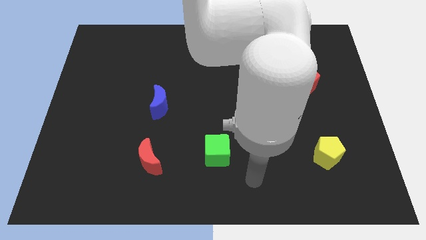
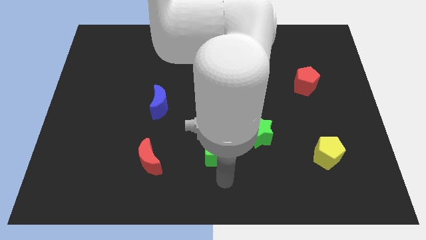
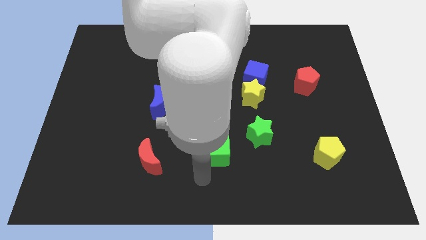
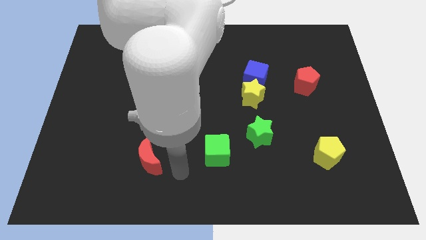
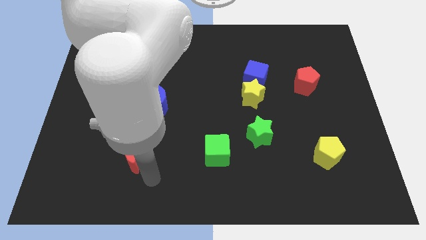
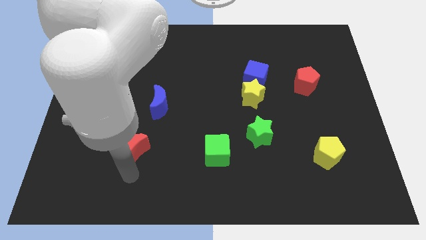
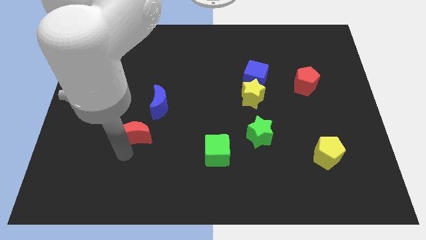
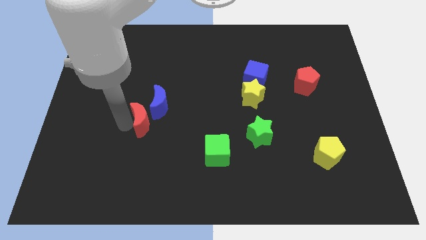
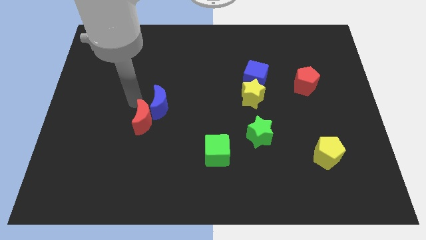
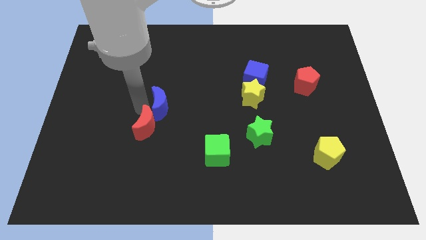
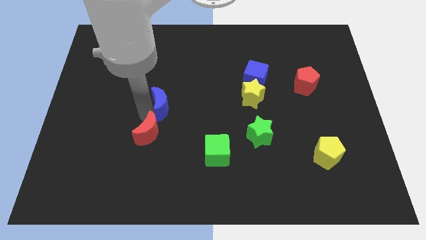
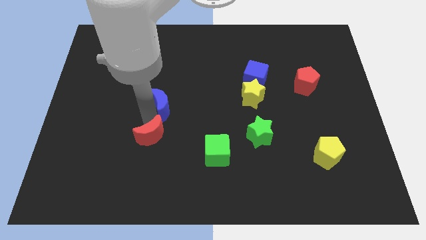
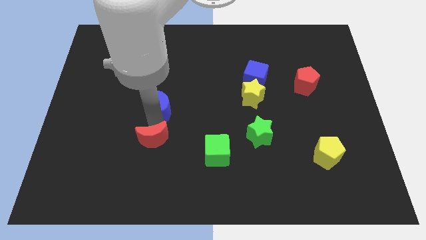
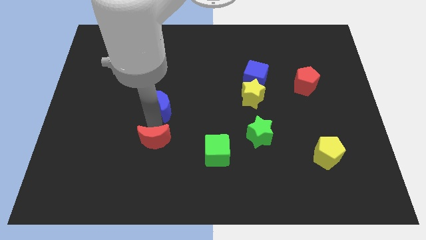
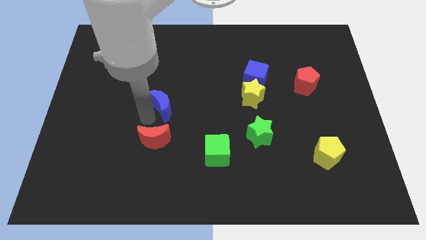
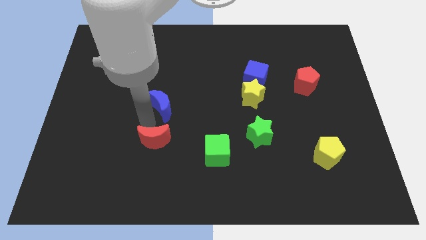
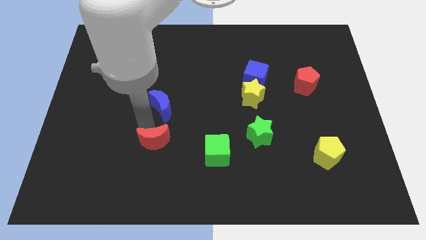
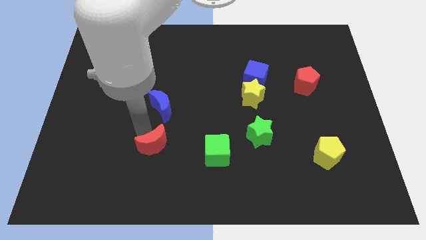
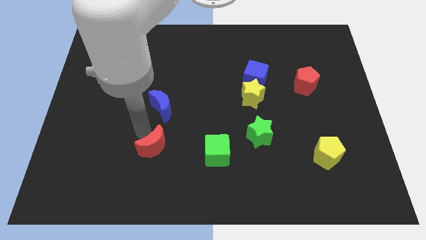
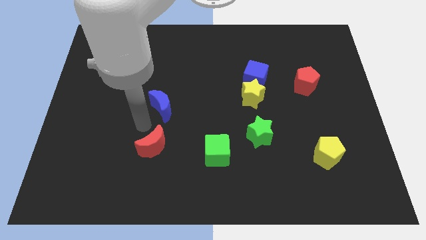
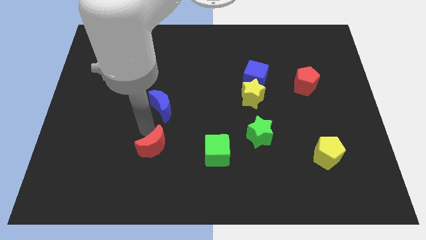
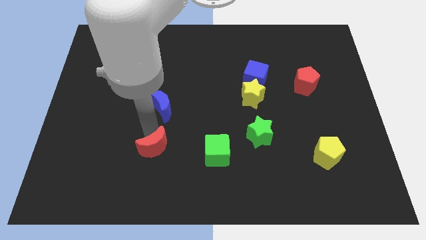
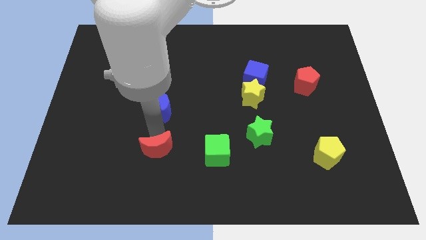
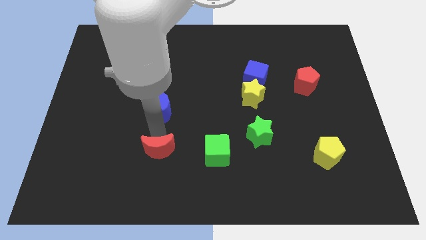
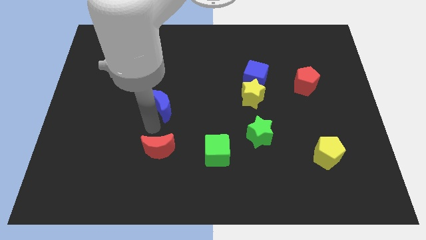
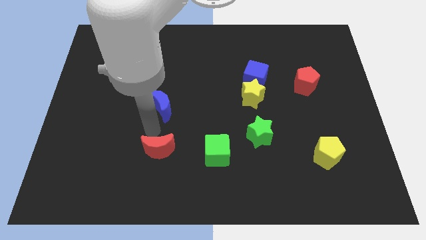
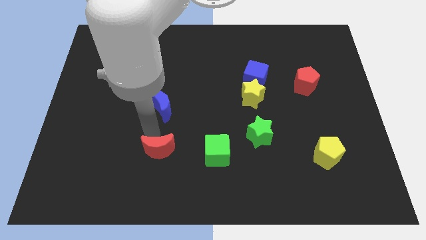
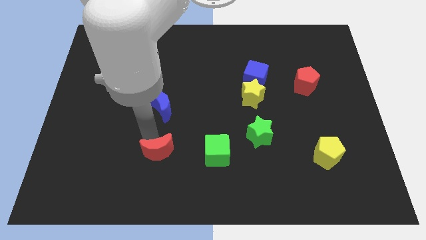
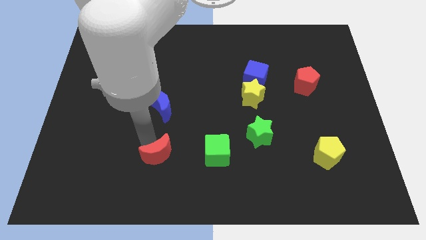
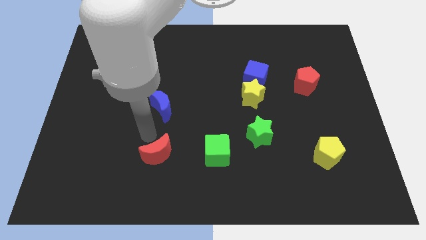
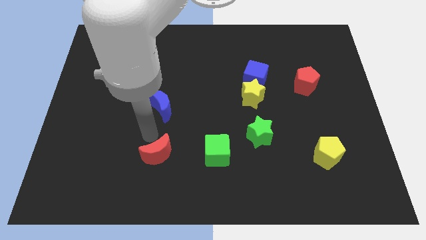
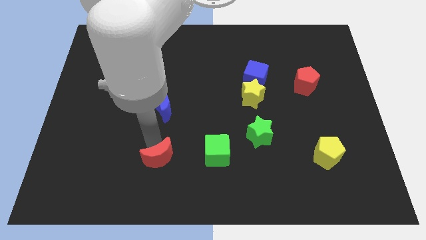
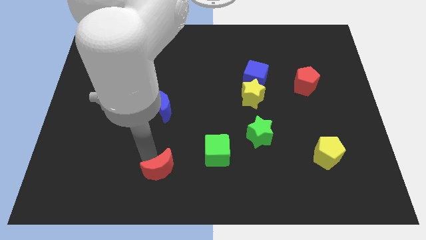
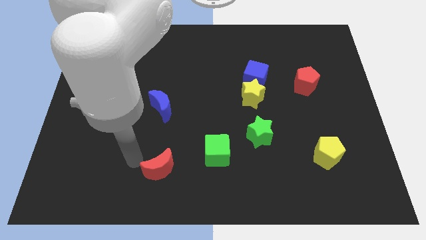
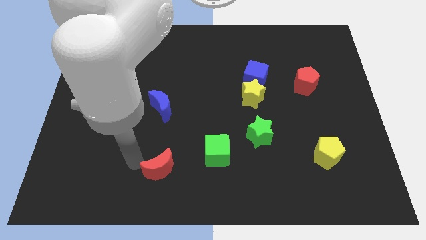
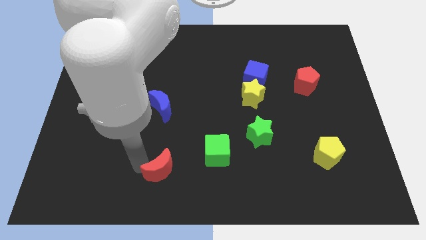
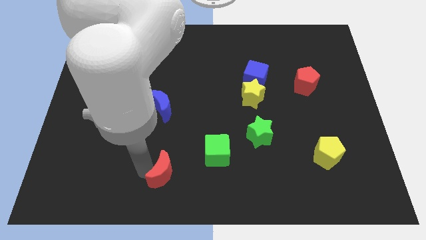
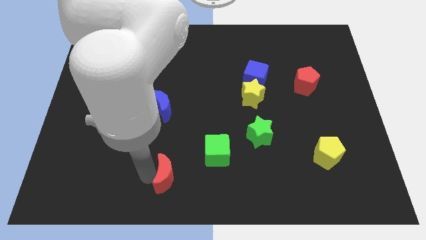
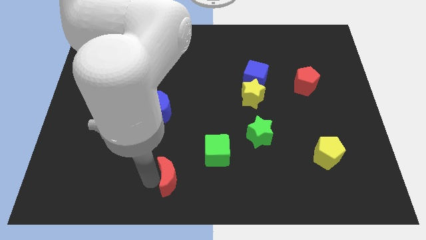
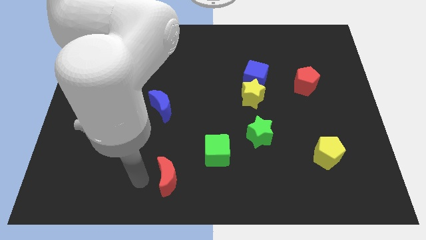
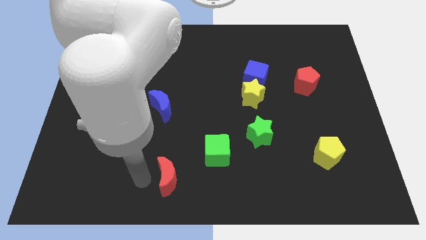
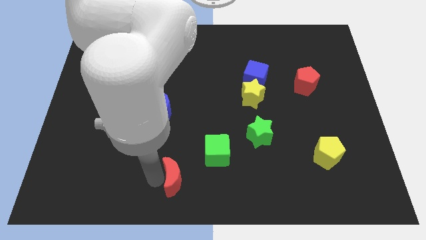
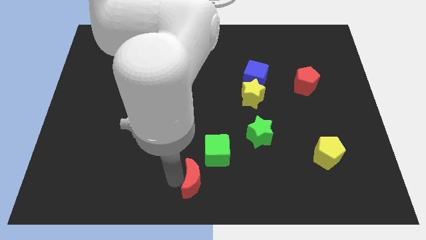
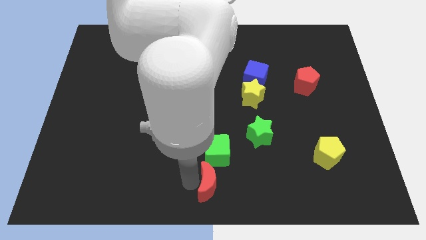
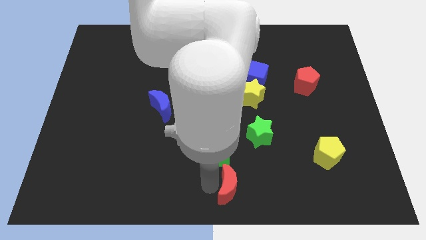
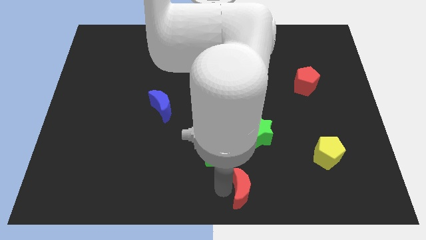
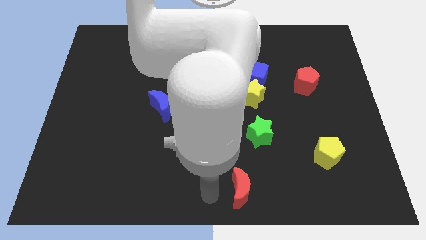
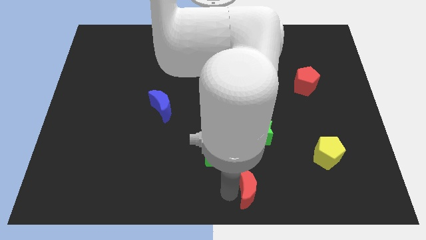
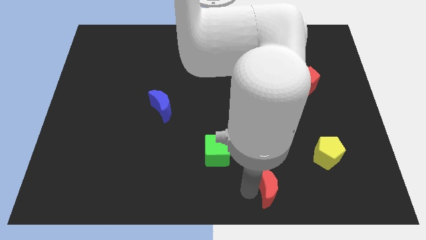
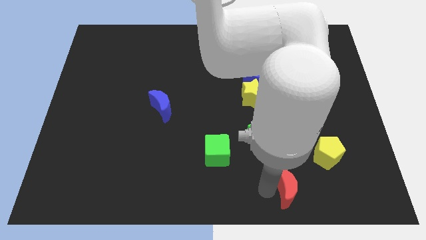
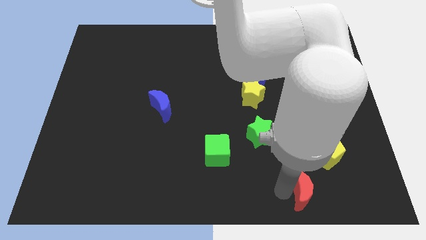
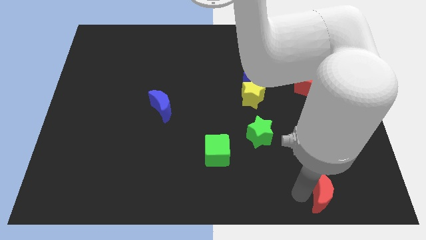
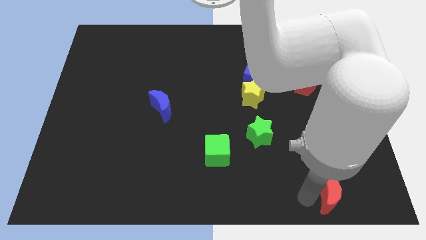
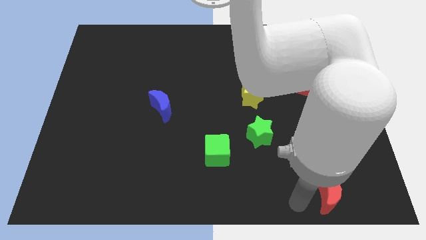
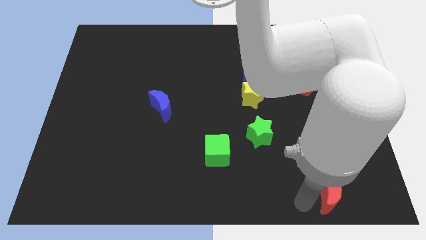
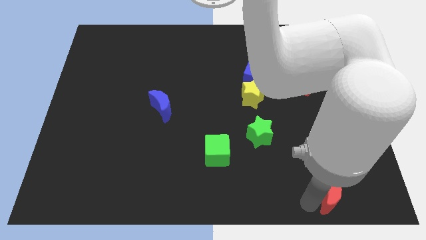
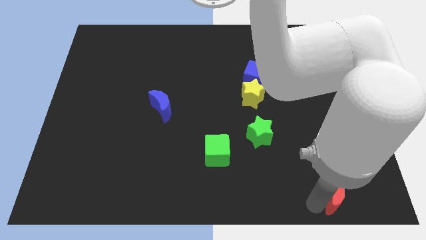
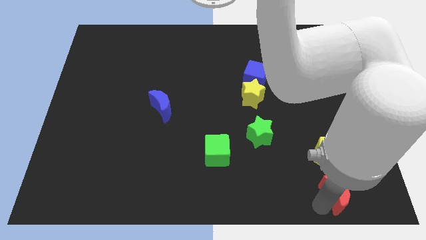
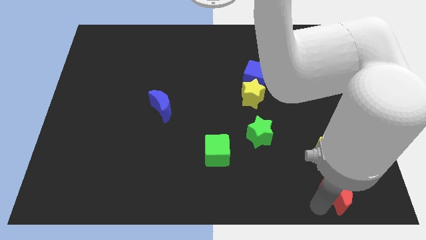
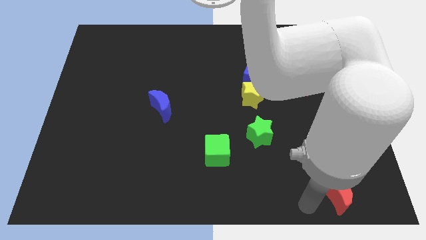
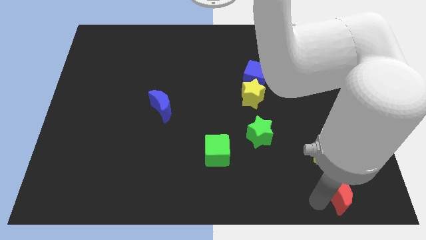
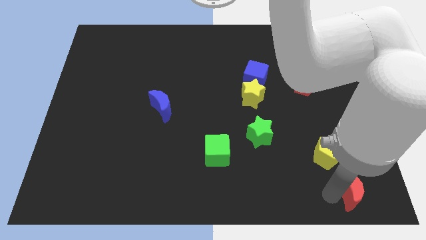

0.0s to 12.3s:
push the red moon to the bottom right of the board
